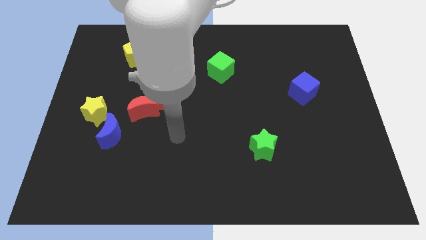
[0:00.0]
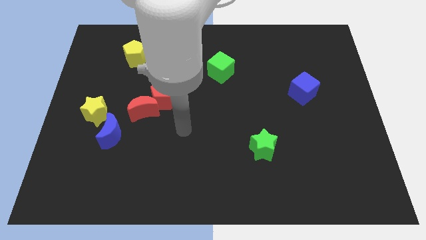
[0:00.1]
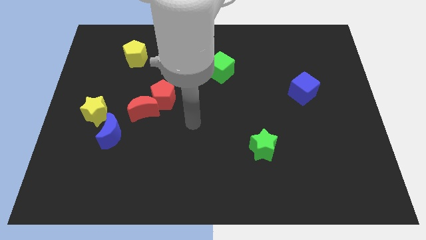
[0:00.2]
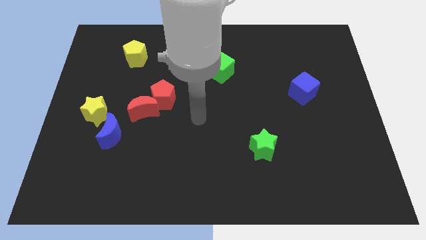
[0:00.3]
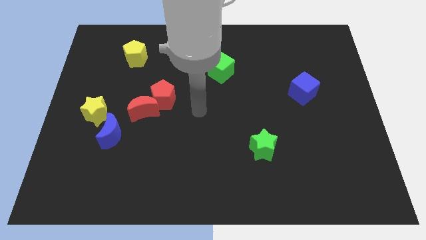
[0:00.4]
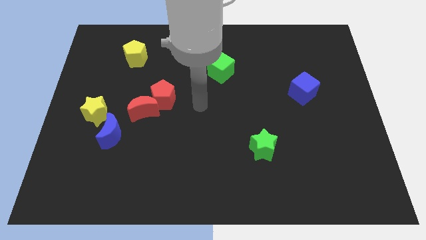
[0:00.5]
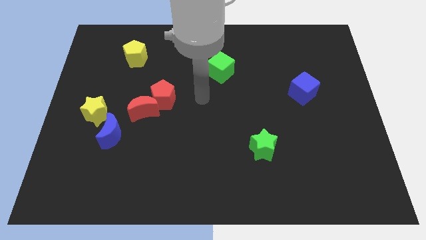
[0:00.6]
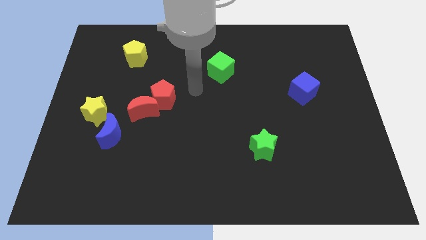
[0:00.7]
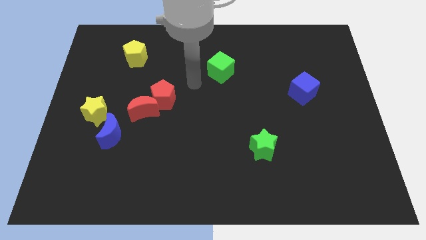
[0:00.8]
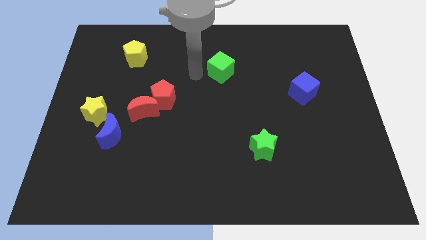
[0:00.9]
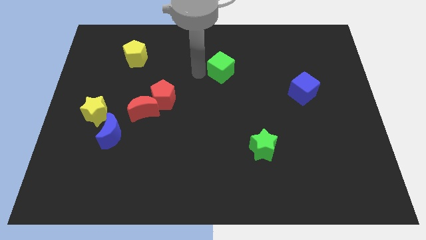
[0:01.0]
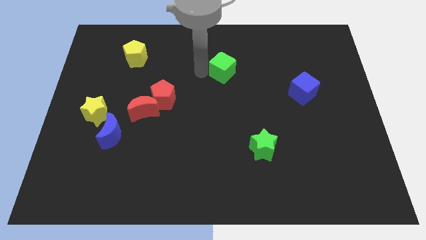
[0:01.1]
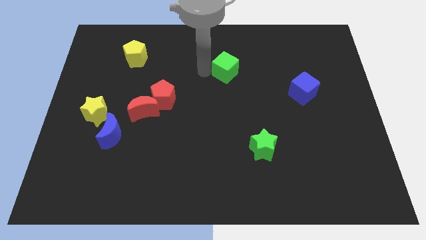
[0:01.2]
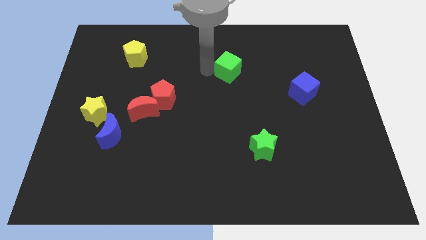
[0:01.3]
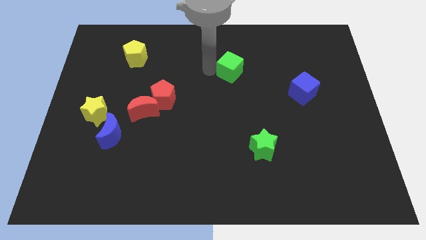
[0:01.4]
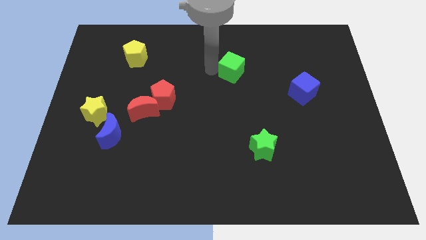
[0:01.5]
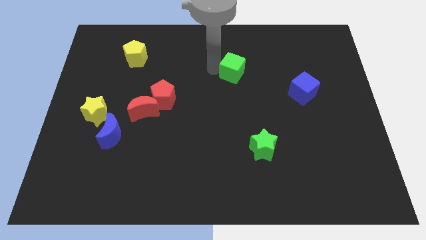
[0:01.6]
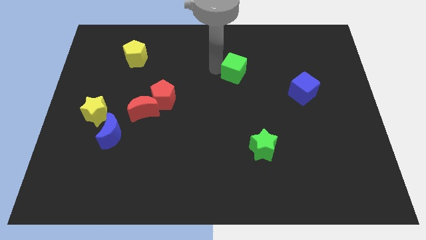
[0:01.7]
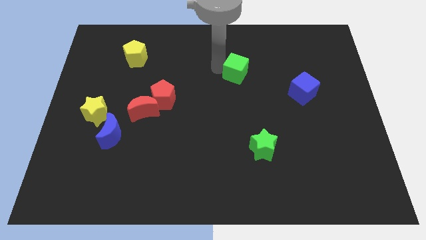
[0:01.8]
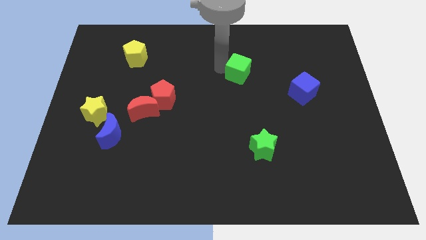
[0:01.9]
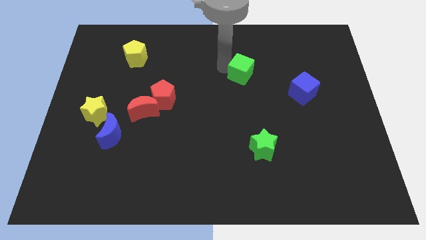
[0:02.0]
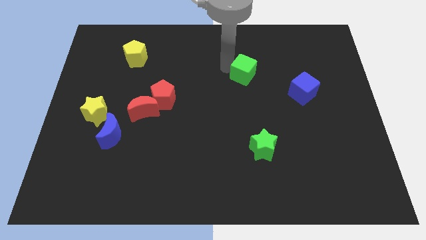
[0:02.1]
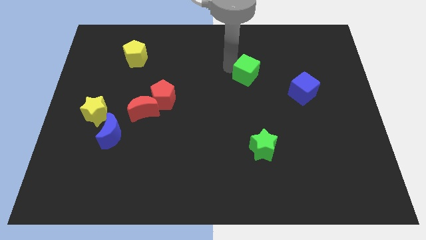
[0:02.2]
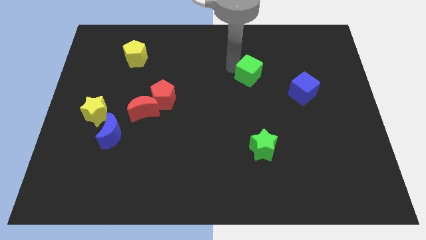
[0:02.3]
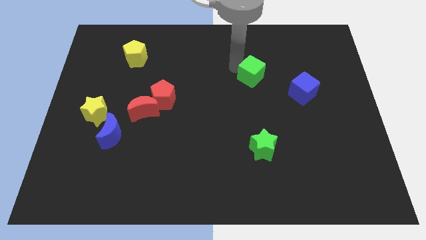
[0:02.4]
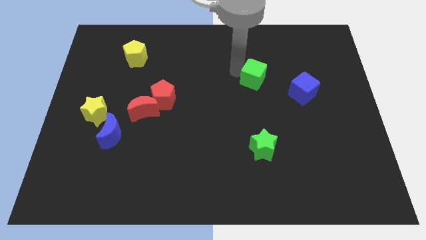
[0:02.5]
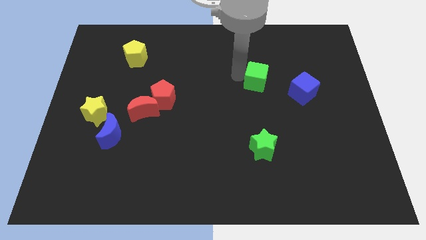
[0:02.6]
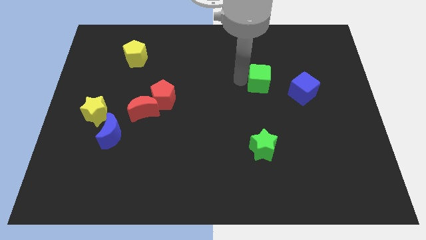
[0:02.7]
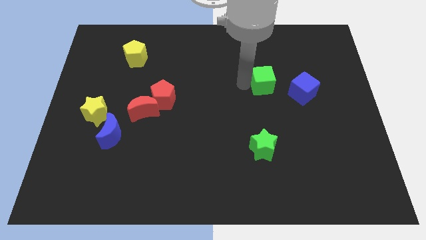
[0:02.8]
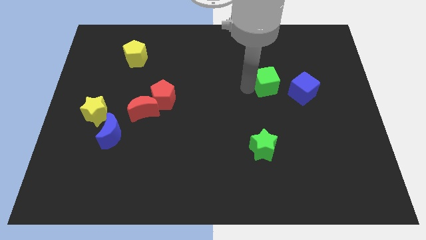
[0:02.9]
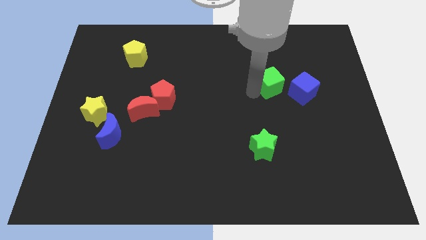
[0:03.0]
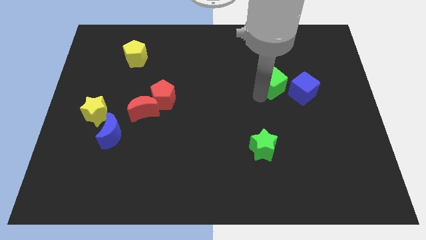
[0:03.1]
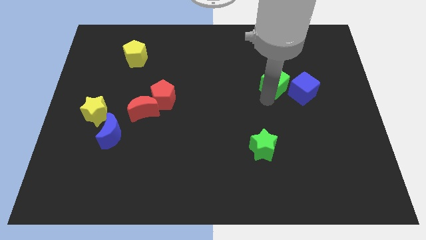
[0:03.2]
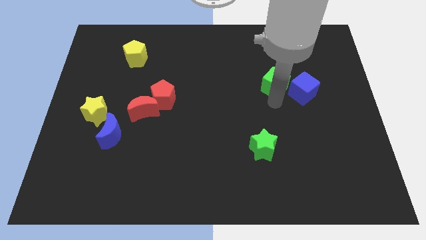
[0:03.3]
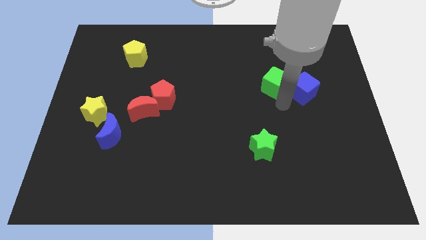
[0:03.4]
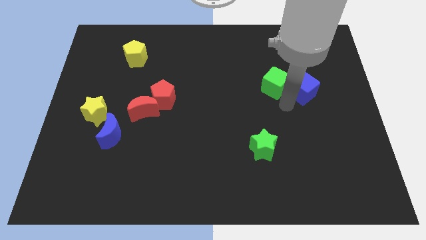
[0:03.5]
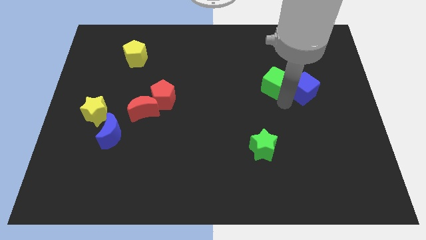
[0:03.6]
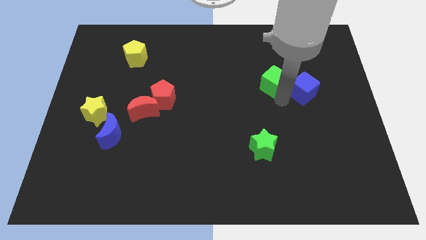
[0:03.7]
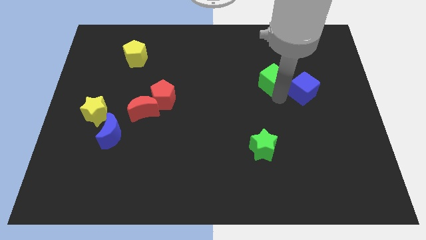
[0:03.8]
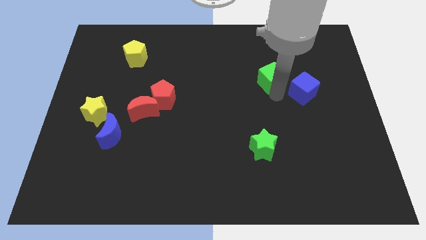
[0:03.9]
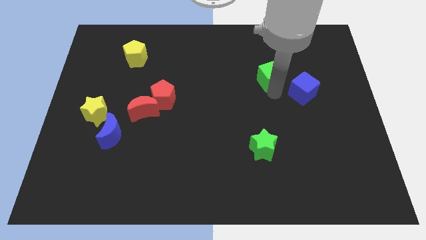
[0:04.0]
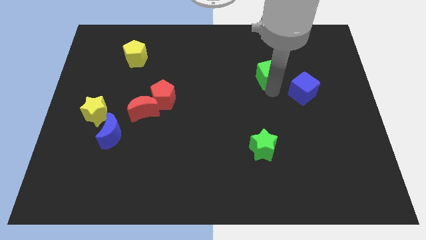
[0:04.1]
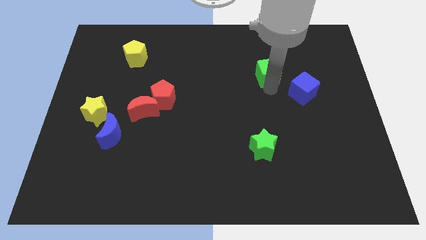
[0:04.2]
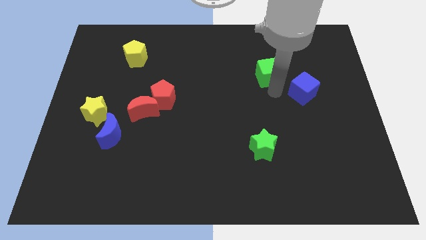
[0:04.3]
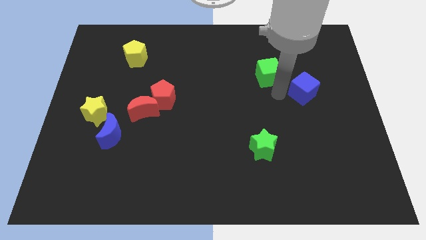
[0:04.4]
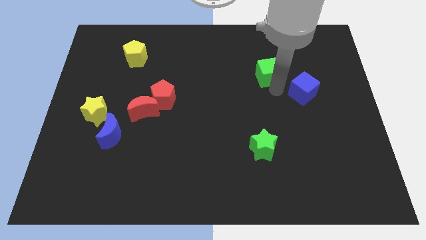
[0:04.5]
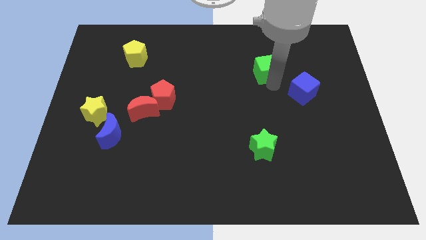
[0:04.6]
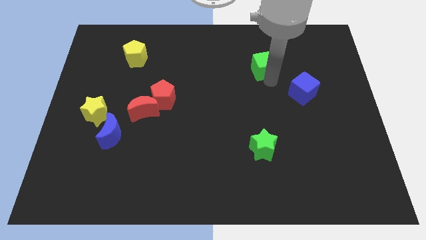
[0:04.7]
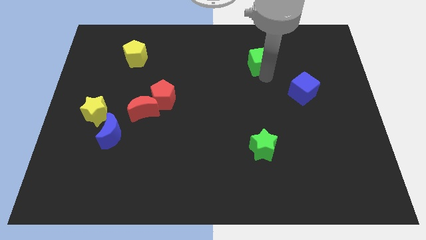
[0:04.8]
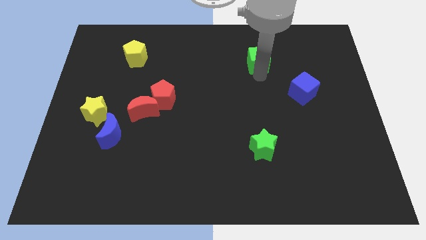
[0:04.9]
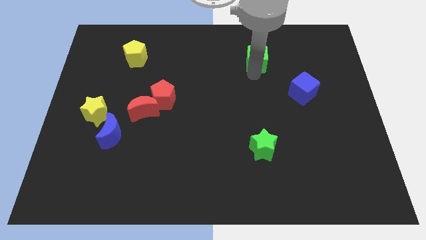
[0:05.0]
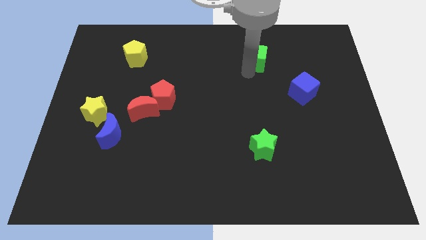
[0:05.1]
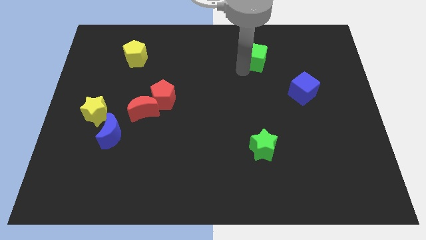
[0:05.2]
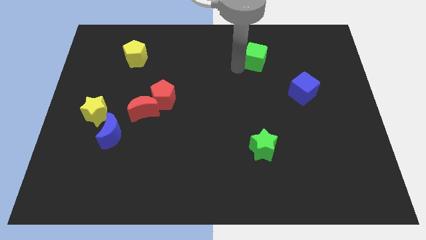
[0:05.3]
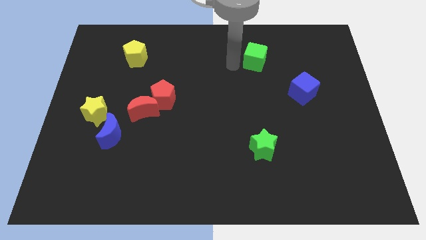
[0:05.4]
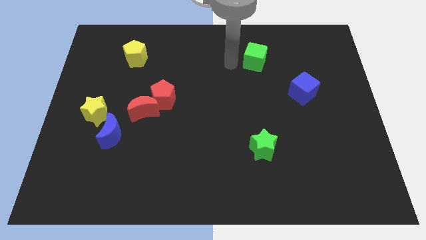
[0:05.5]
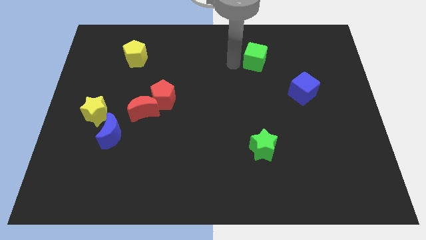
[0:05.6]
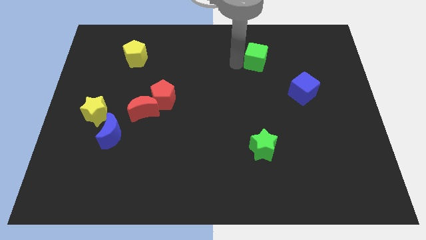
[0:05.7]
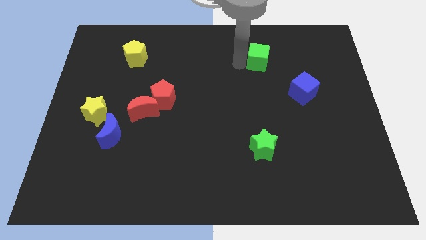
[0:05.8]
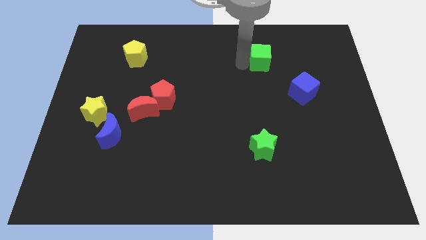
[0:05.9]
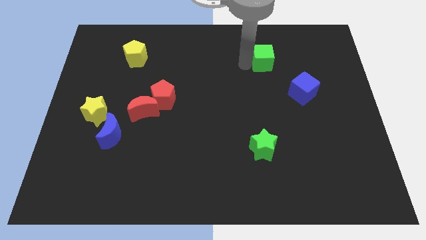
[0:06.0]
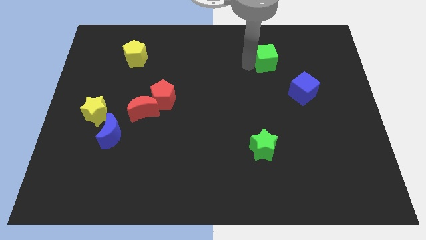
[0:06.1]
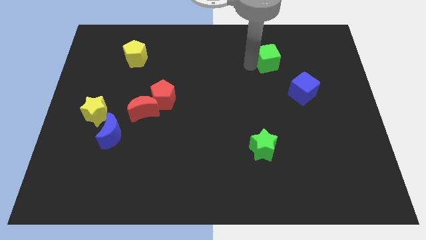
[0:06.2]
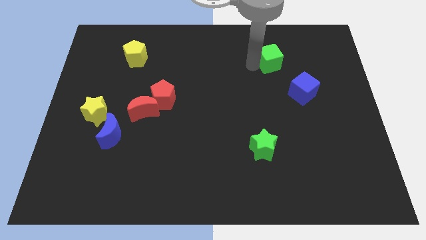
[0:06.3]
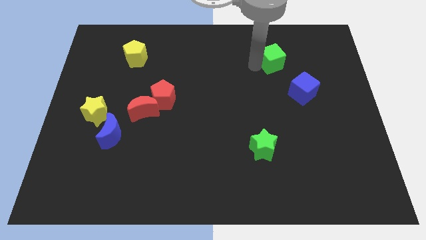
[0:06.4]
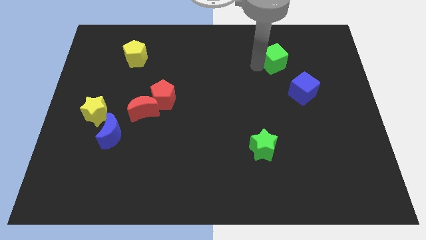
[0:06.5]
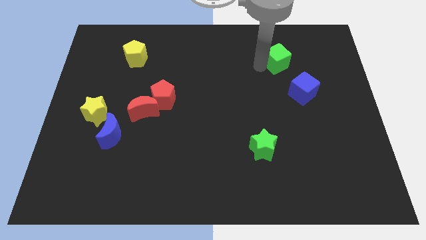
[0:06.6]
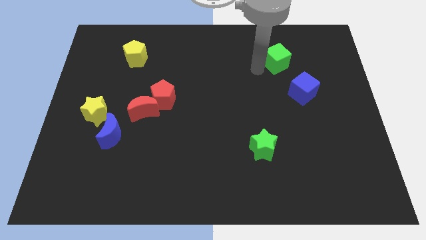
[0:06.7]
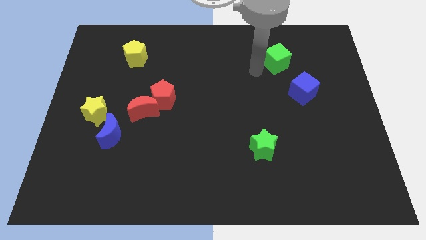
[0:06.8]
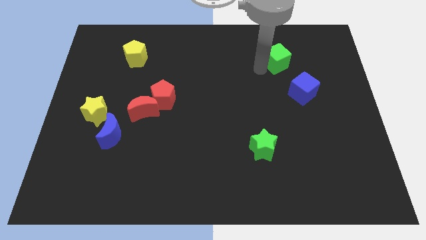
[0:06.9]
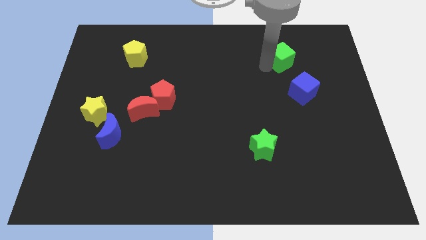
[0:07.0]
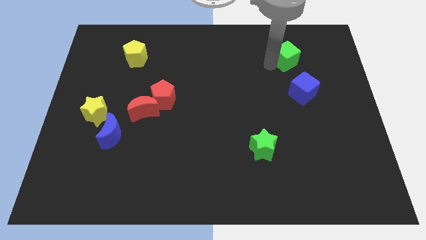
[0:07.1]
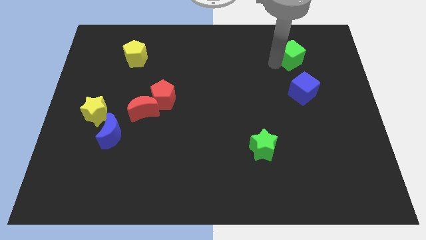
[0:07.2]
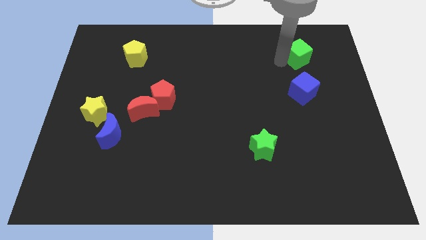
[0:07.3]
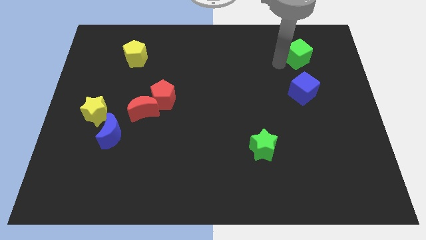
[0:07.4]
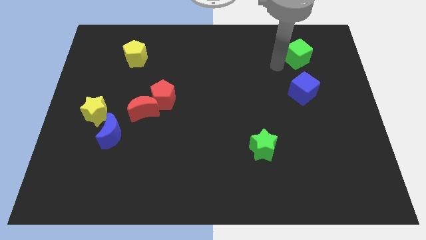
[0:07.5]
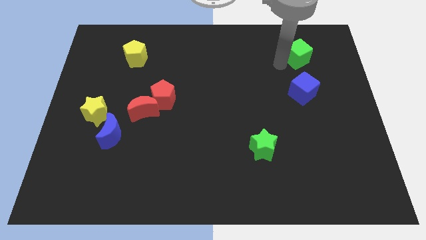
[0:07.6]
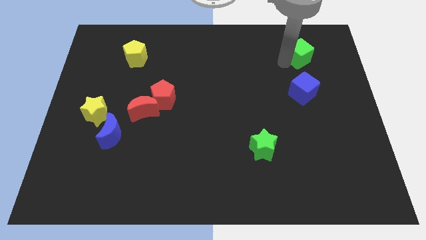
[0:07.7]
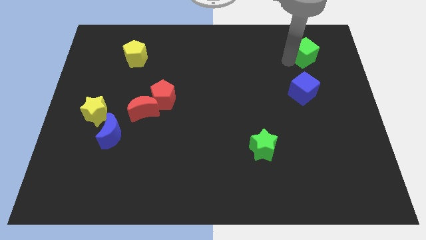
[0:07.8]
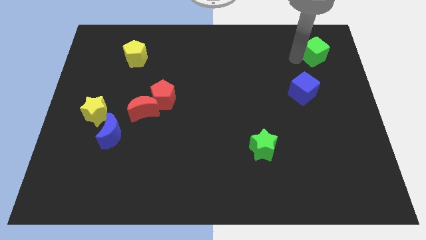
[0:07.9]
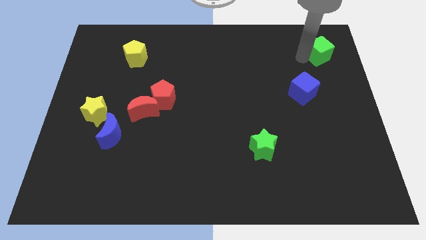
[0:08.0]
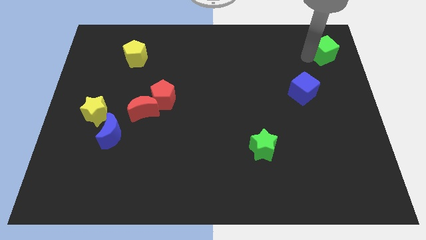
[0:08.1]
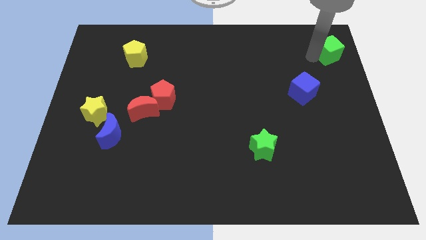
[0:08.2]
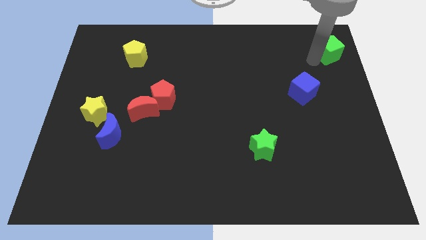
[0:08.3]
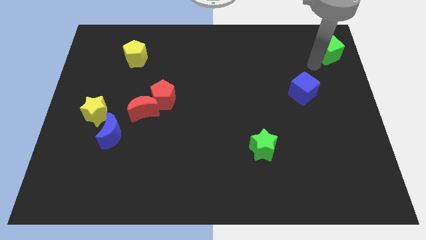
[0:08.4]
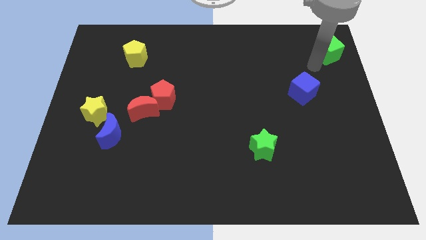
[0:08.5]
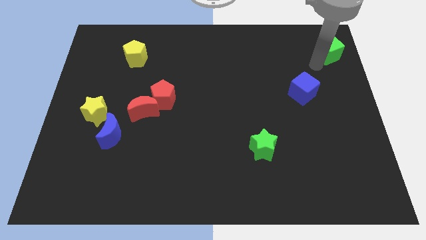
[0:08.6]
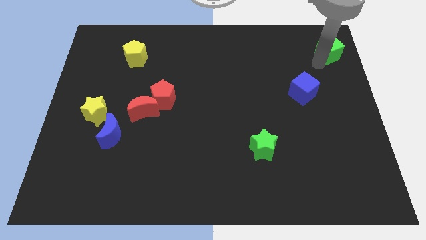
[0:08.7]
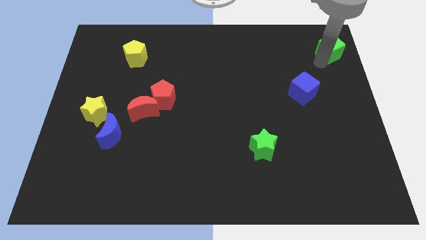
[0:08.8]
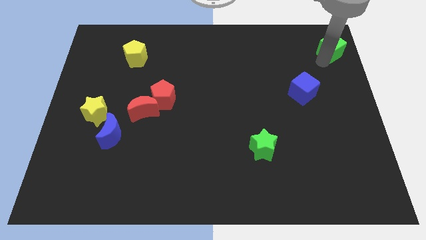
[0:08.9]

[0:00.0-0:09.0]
slide the green cube to the top right
